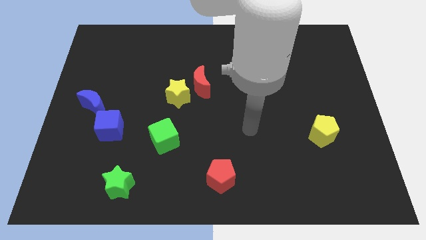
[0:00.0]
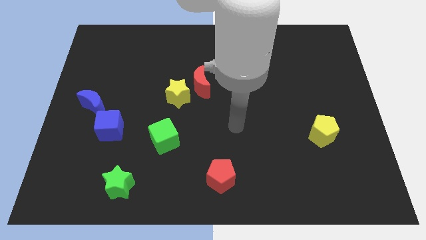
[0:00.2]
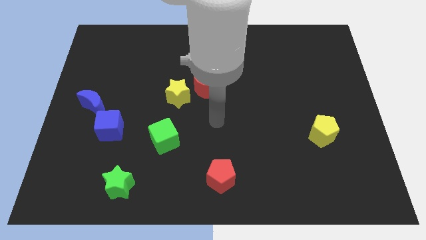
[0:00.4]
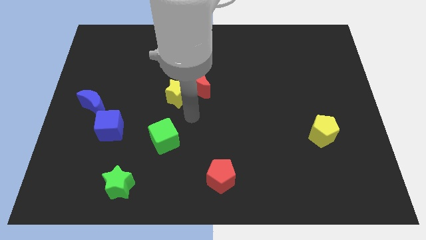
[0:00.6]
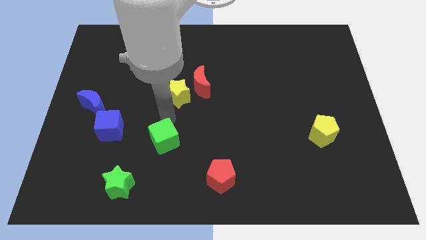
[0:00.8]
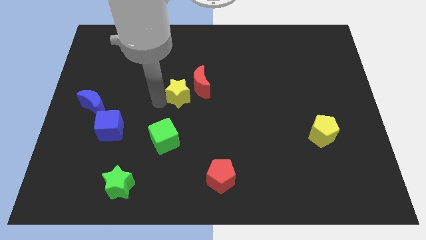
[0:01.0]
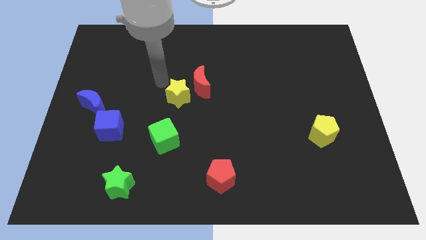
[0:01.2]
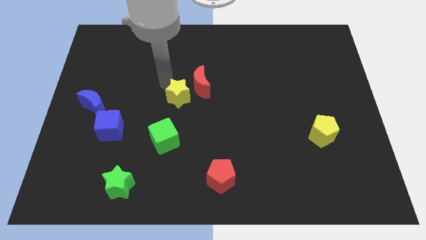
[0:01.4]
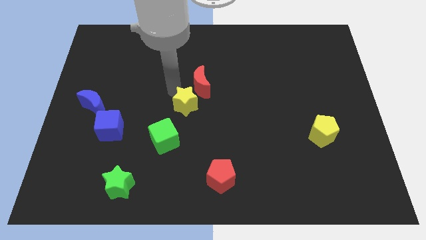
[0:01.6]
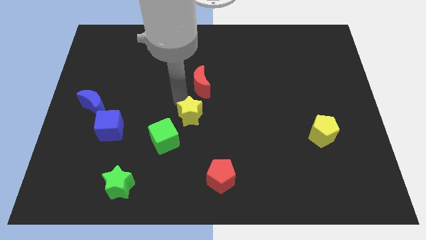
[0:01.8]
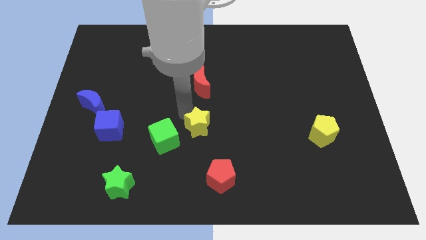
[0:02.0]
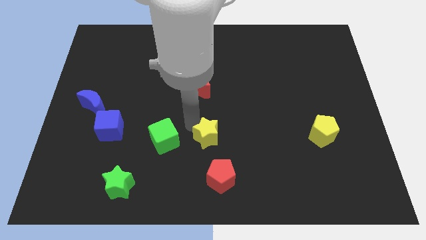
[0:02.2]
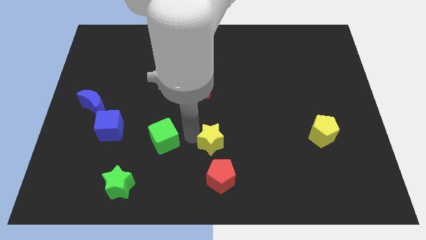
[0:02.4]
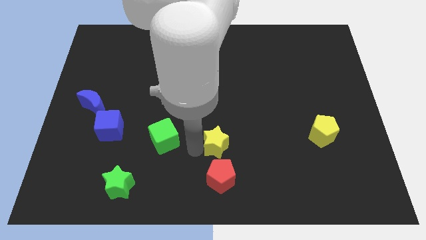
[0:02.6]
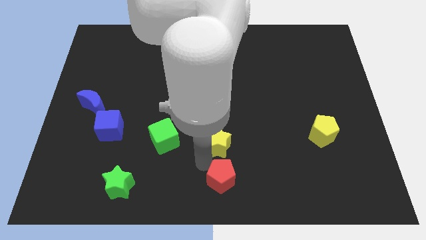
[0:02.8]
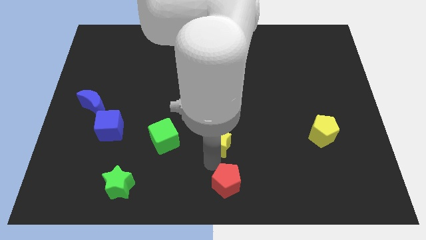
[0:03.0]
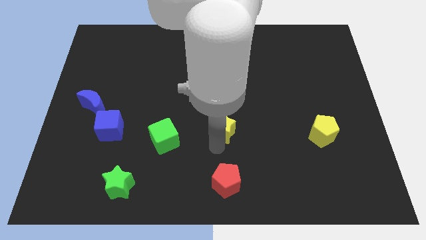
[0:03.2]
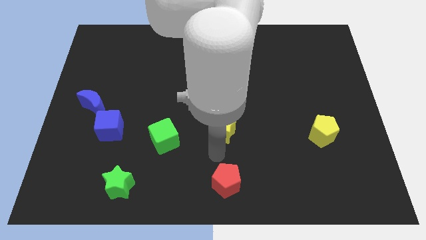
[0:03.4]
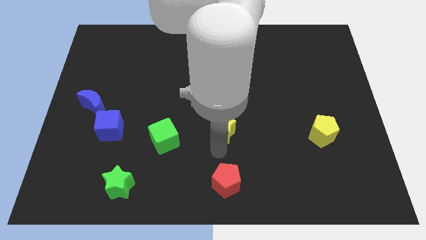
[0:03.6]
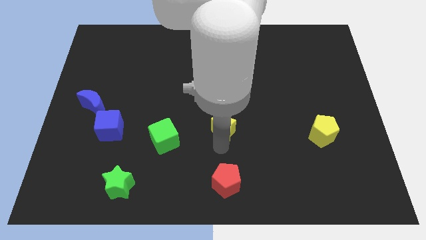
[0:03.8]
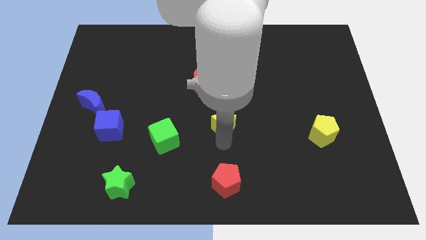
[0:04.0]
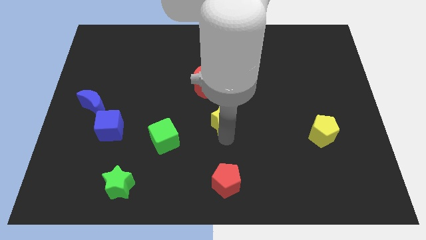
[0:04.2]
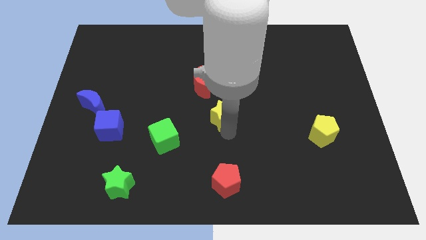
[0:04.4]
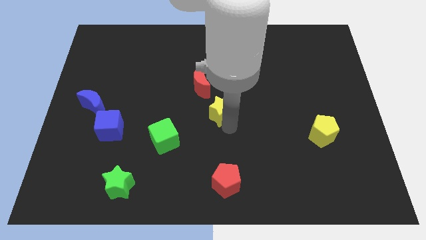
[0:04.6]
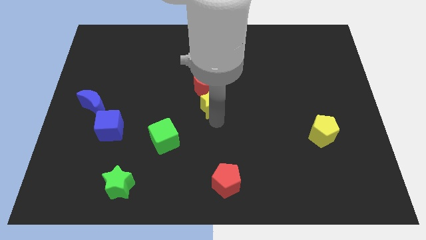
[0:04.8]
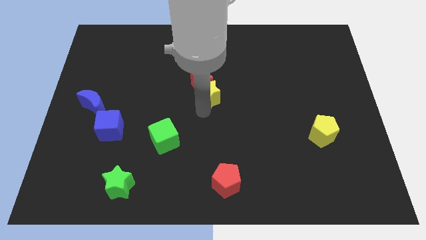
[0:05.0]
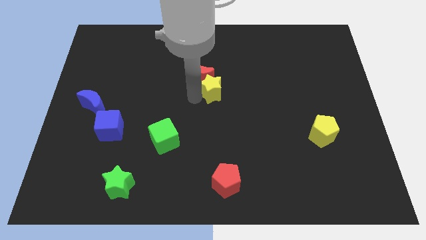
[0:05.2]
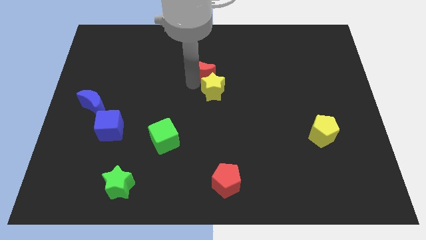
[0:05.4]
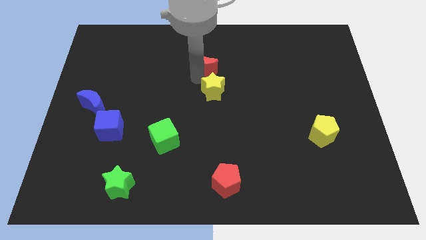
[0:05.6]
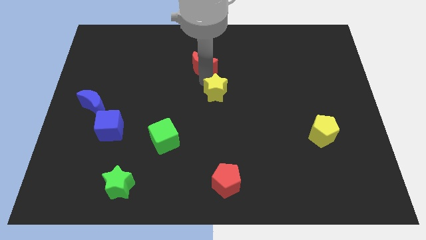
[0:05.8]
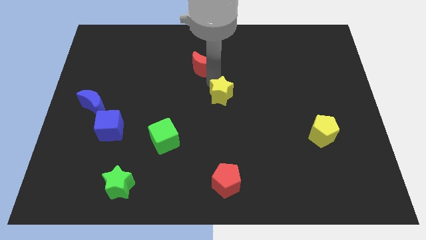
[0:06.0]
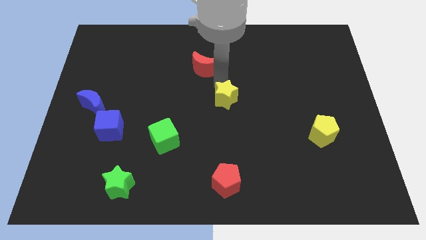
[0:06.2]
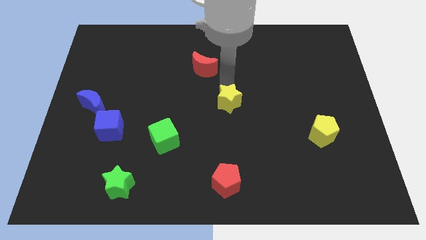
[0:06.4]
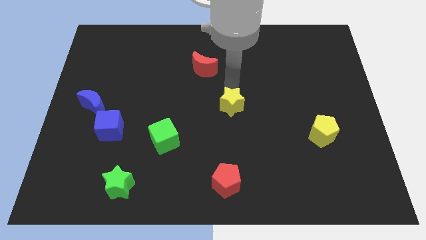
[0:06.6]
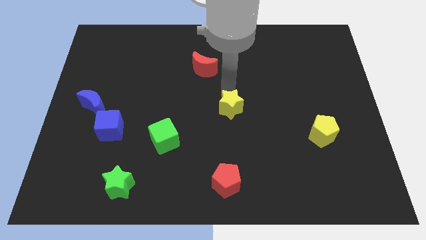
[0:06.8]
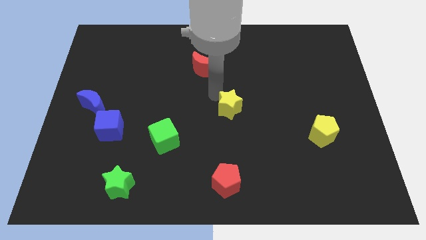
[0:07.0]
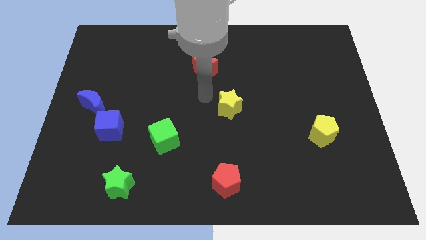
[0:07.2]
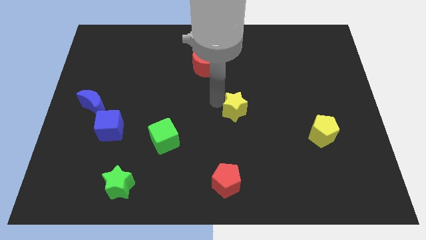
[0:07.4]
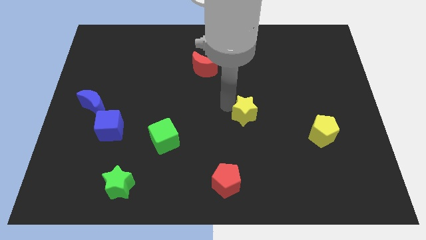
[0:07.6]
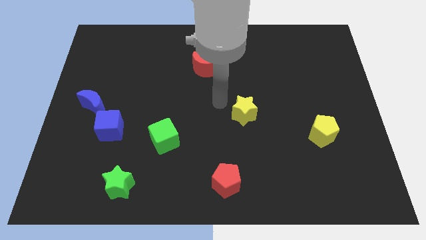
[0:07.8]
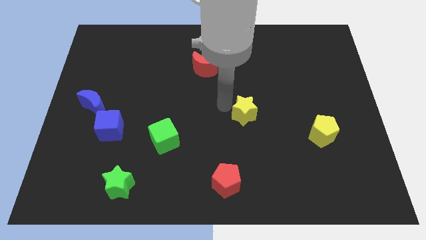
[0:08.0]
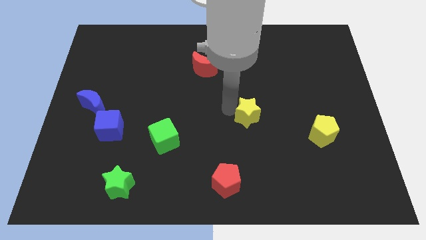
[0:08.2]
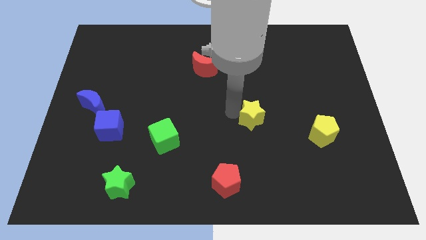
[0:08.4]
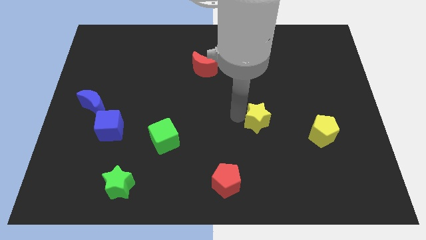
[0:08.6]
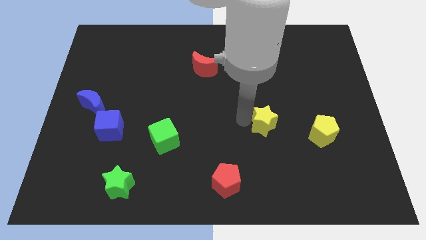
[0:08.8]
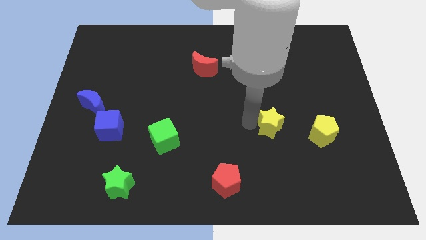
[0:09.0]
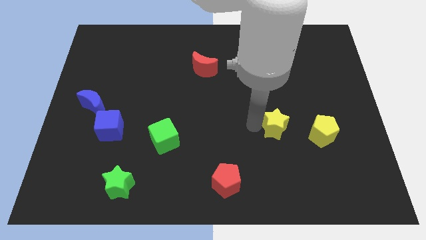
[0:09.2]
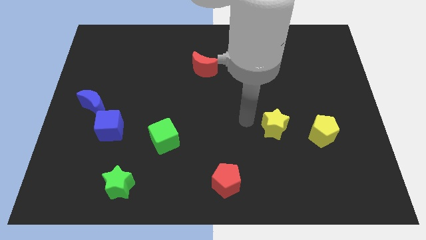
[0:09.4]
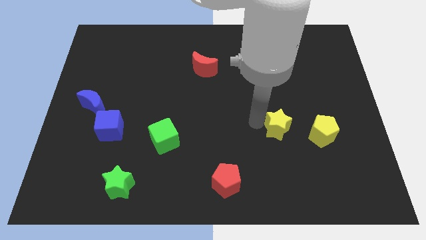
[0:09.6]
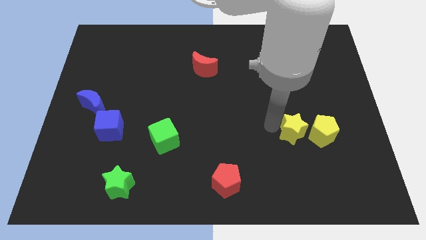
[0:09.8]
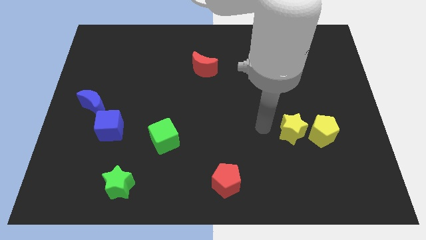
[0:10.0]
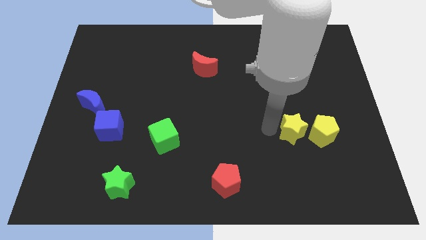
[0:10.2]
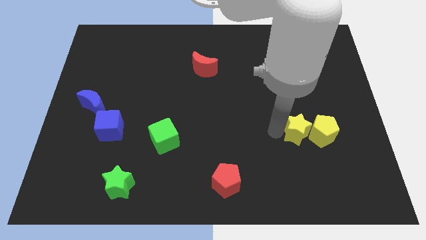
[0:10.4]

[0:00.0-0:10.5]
move the yellow star next to the yellow pentagon

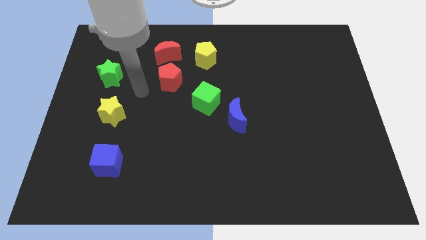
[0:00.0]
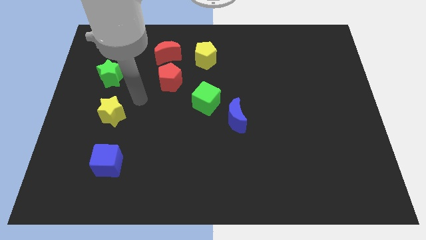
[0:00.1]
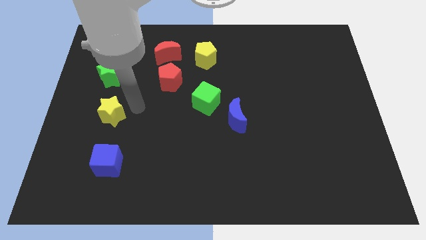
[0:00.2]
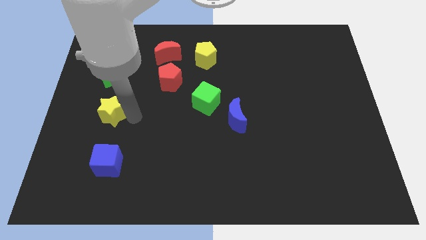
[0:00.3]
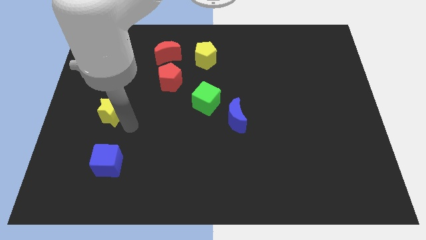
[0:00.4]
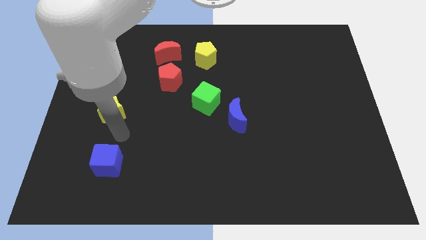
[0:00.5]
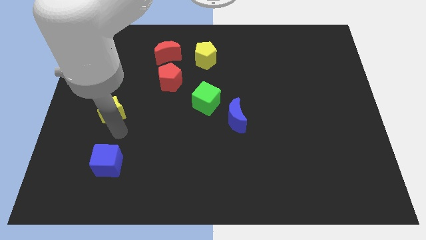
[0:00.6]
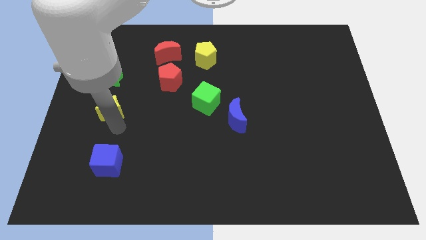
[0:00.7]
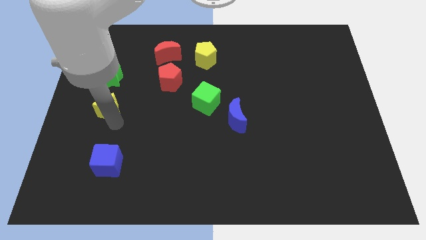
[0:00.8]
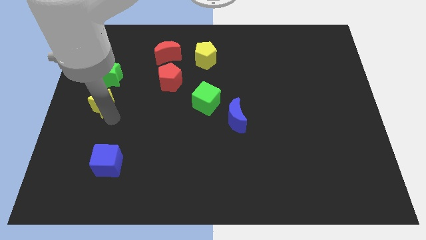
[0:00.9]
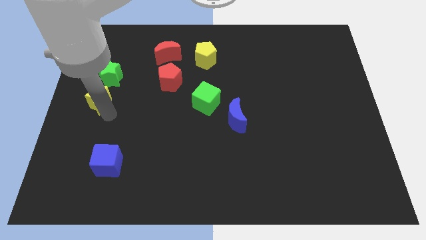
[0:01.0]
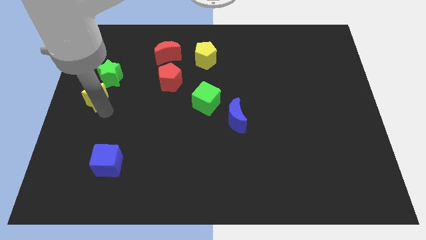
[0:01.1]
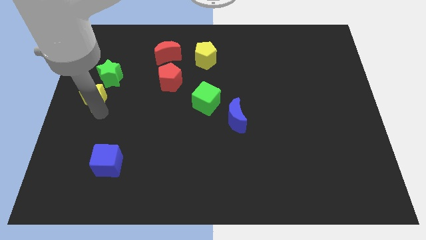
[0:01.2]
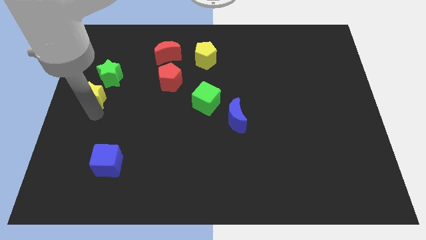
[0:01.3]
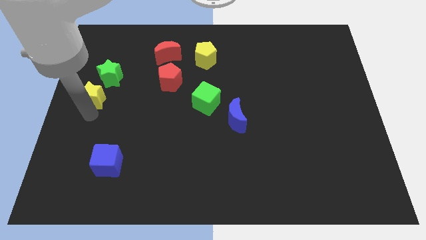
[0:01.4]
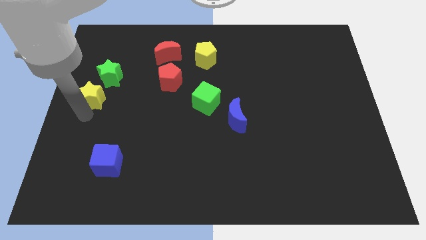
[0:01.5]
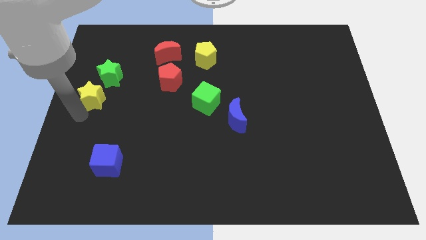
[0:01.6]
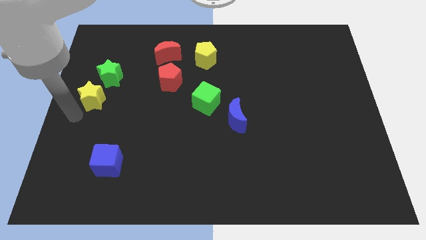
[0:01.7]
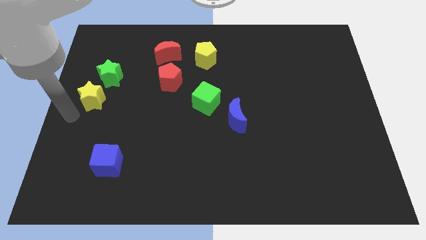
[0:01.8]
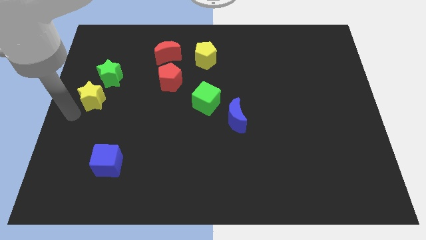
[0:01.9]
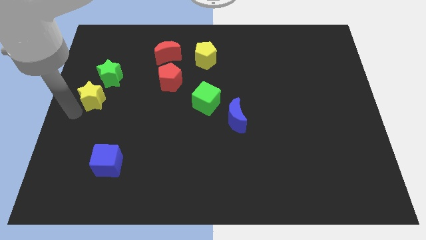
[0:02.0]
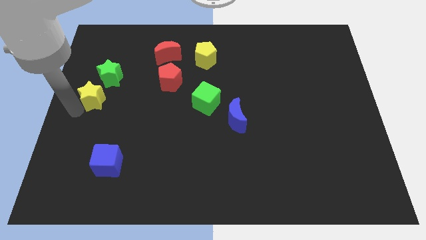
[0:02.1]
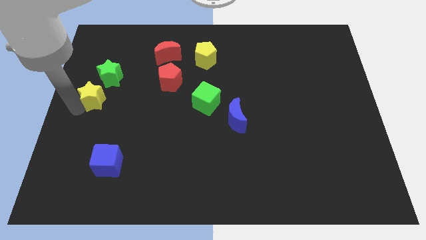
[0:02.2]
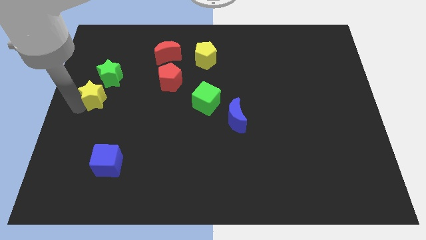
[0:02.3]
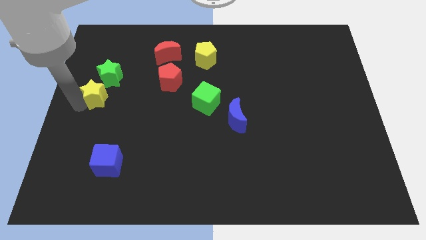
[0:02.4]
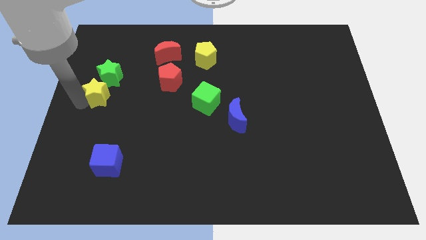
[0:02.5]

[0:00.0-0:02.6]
move the yellow star towards the green star
